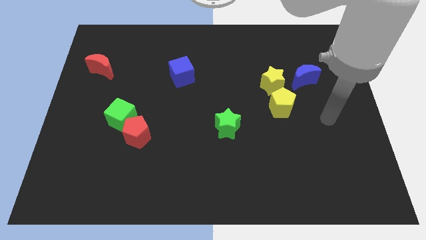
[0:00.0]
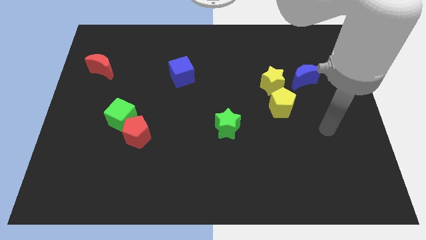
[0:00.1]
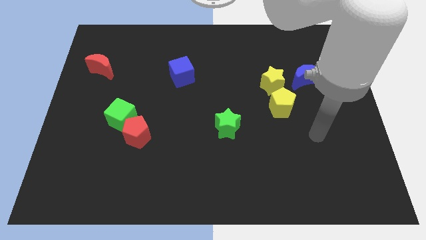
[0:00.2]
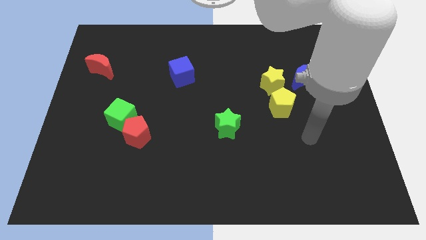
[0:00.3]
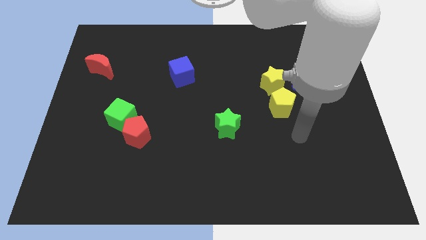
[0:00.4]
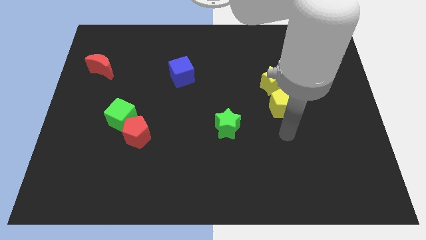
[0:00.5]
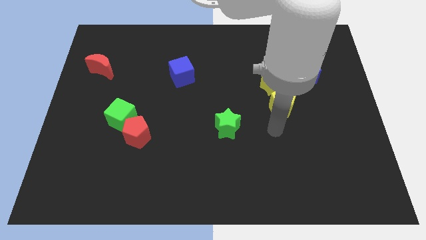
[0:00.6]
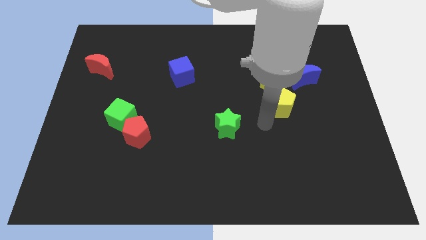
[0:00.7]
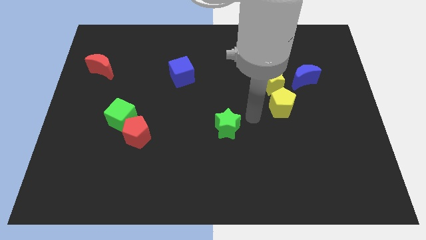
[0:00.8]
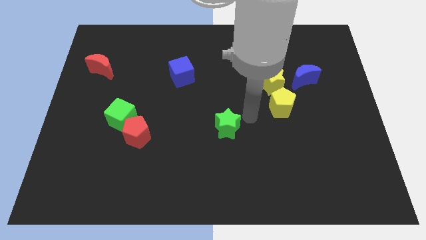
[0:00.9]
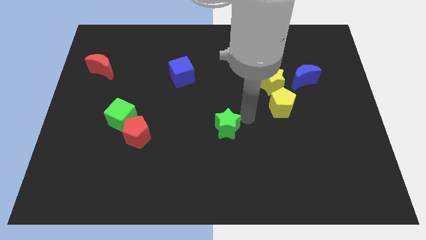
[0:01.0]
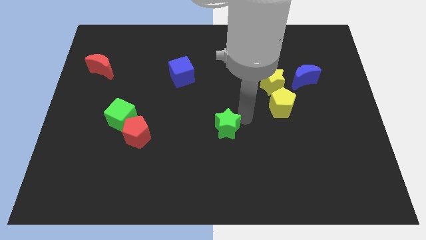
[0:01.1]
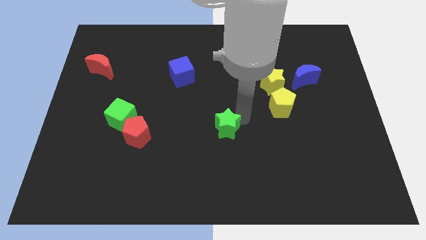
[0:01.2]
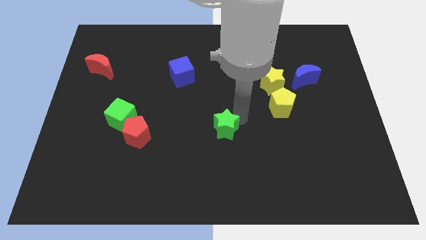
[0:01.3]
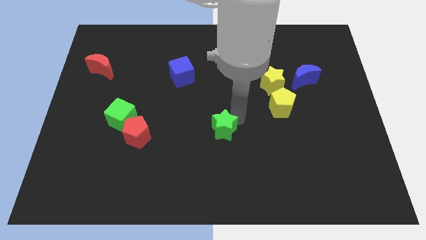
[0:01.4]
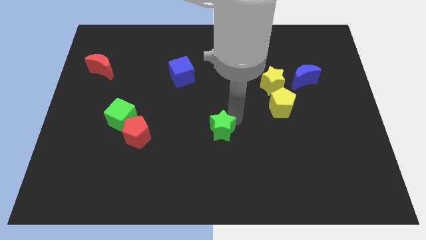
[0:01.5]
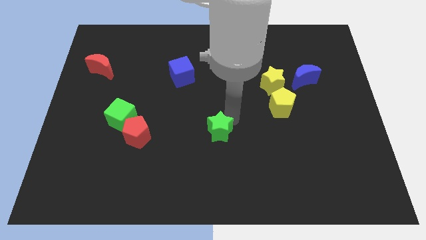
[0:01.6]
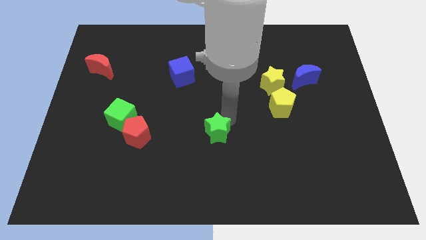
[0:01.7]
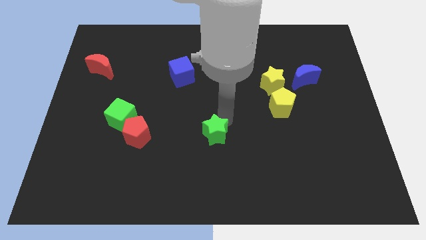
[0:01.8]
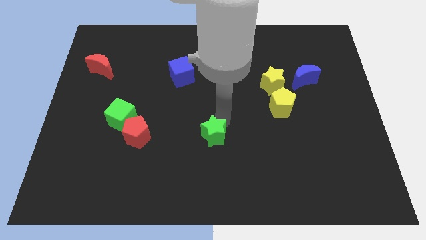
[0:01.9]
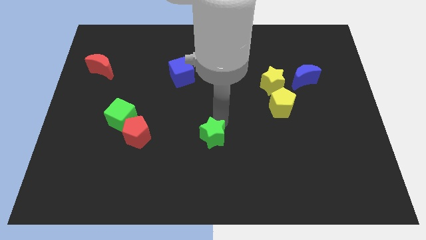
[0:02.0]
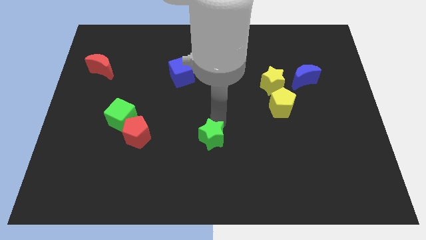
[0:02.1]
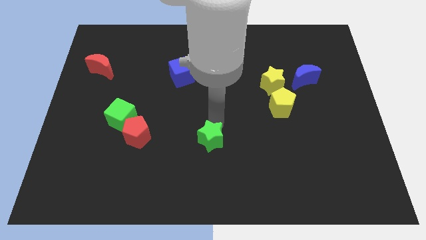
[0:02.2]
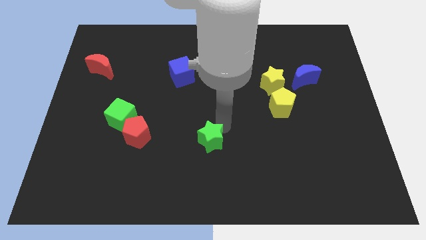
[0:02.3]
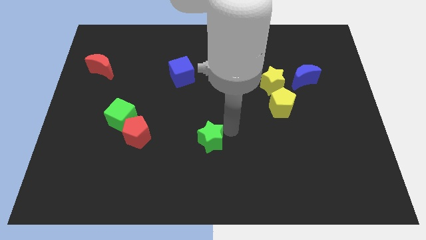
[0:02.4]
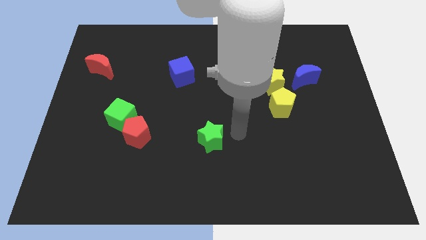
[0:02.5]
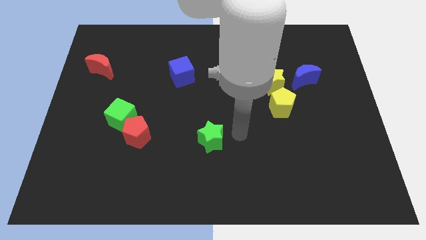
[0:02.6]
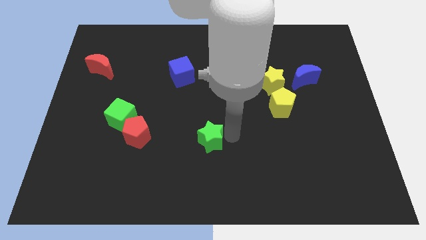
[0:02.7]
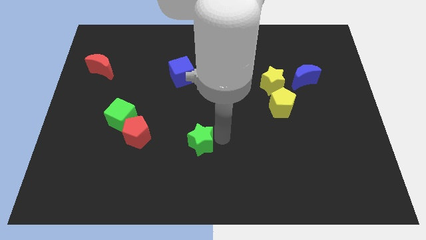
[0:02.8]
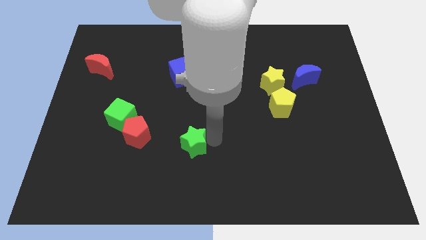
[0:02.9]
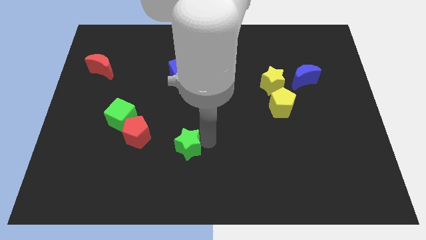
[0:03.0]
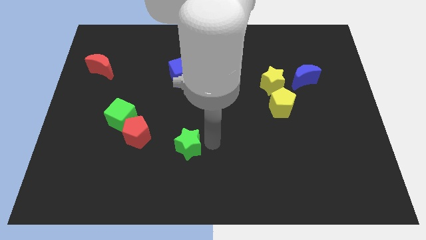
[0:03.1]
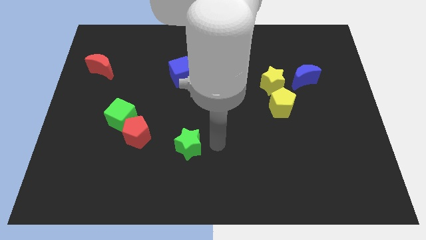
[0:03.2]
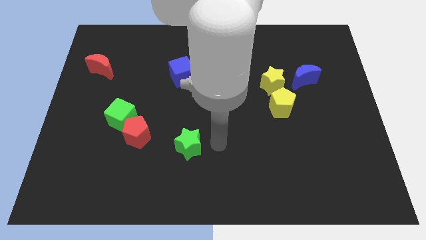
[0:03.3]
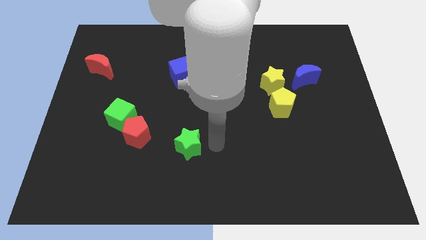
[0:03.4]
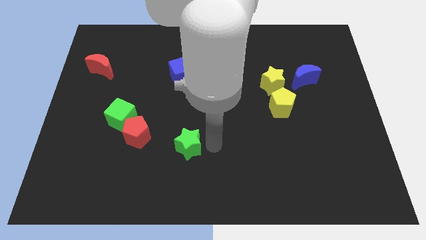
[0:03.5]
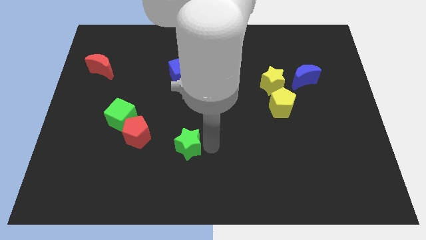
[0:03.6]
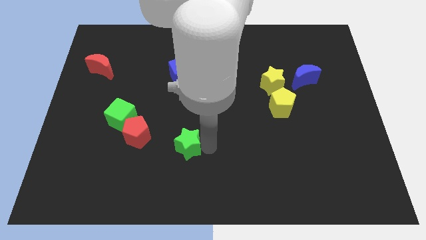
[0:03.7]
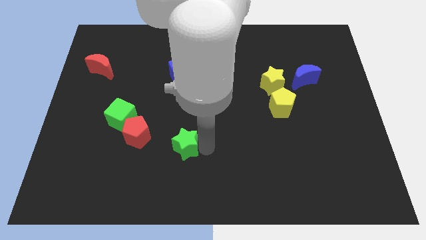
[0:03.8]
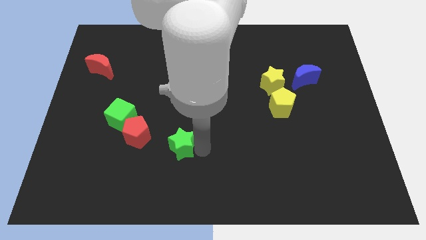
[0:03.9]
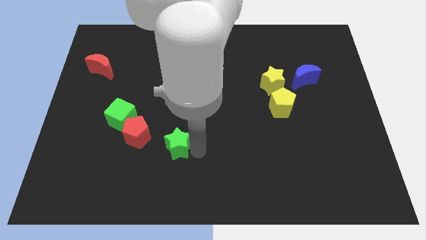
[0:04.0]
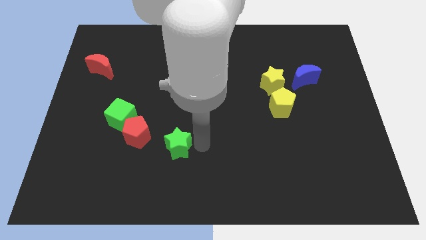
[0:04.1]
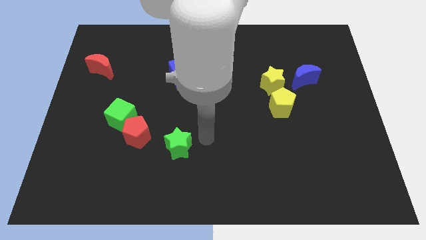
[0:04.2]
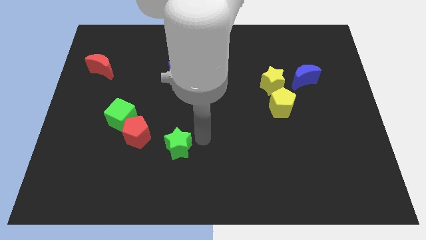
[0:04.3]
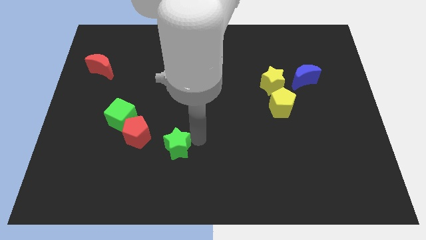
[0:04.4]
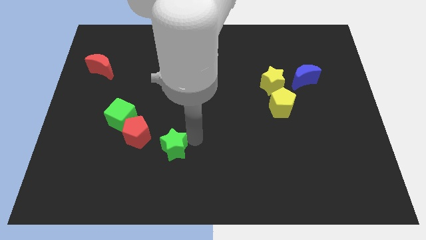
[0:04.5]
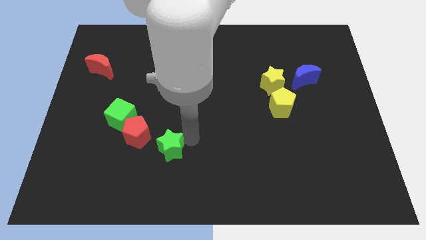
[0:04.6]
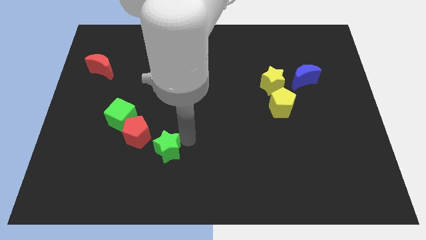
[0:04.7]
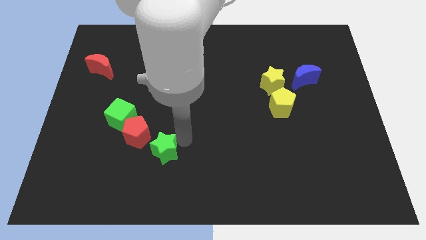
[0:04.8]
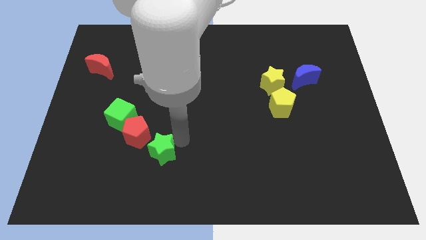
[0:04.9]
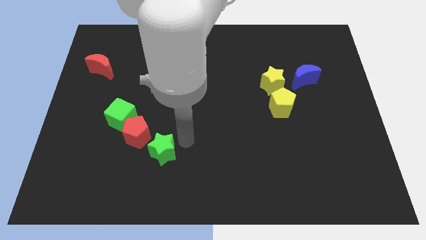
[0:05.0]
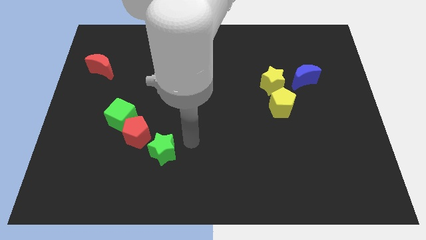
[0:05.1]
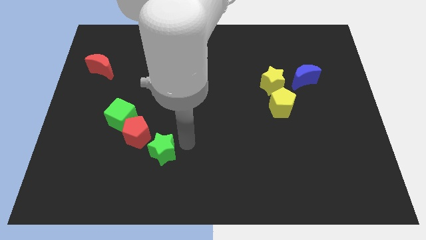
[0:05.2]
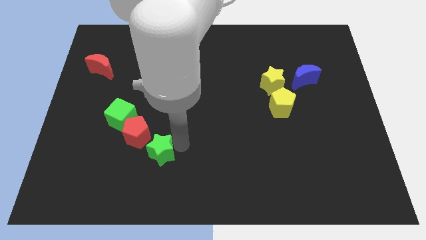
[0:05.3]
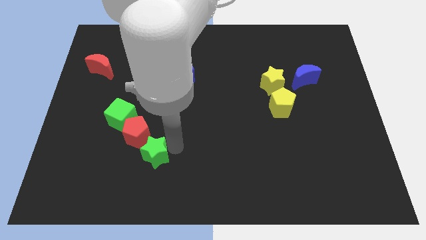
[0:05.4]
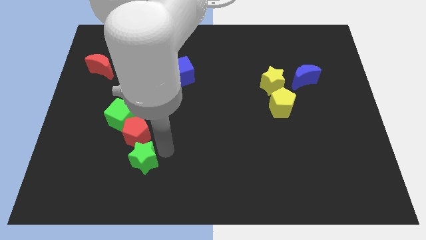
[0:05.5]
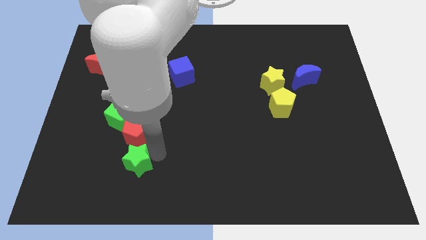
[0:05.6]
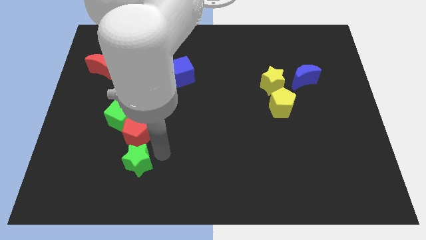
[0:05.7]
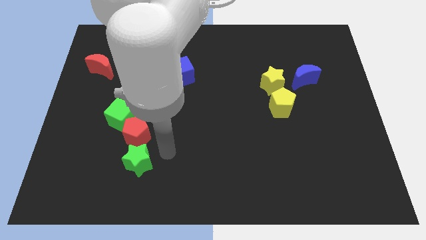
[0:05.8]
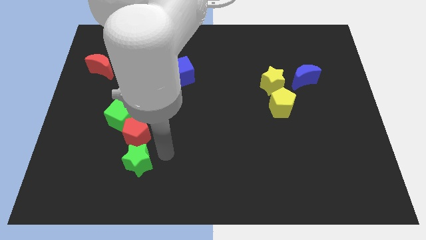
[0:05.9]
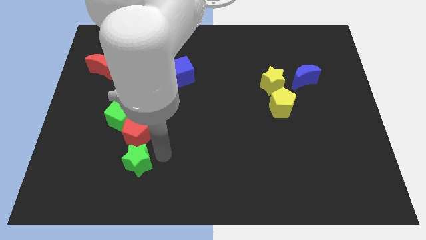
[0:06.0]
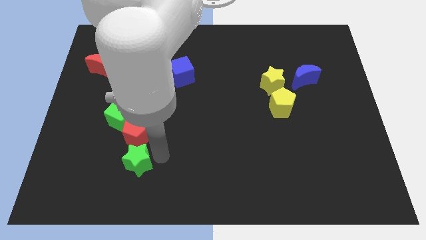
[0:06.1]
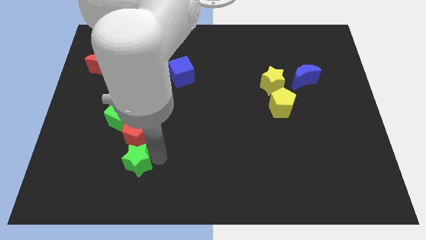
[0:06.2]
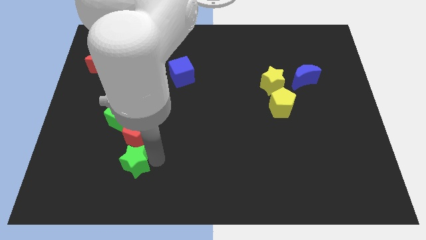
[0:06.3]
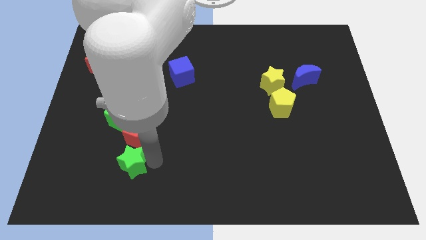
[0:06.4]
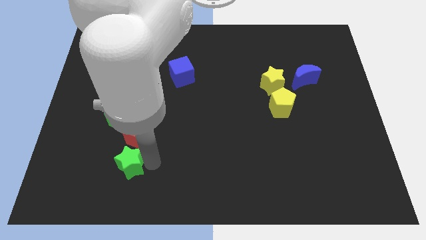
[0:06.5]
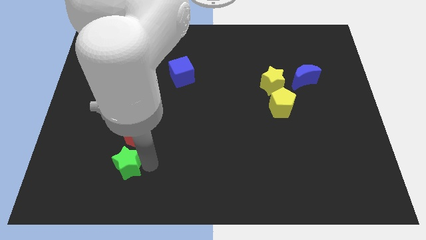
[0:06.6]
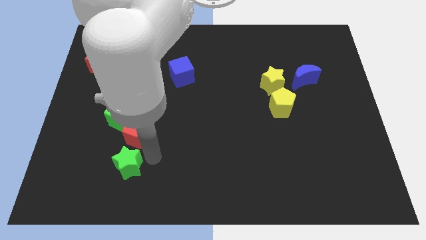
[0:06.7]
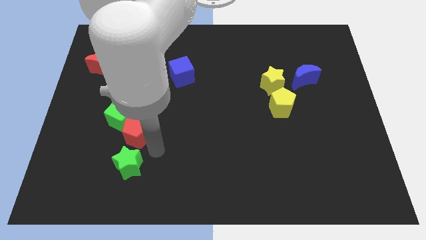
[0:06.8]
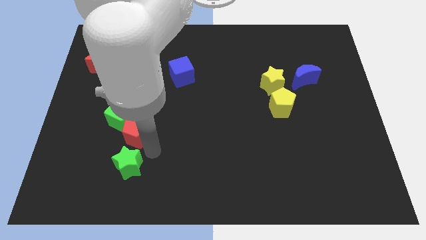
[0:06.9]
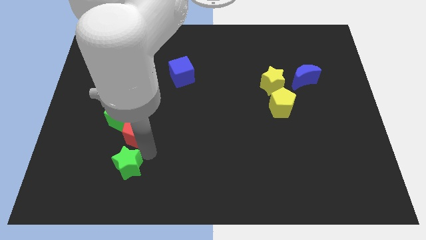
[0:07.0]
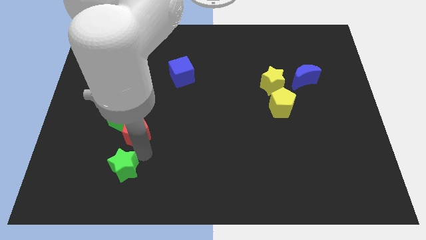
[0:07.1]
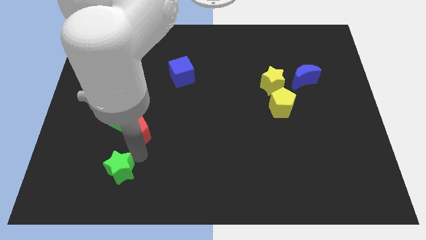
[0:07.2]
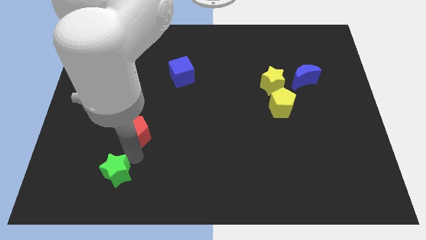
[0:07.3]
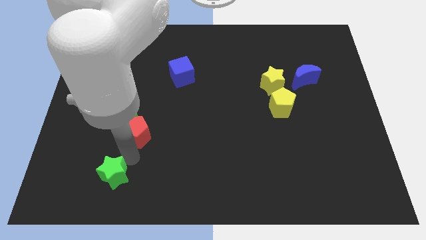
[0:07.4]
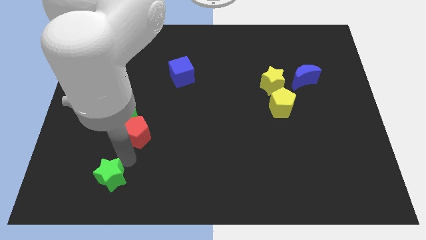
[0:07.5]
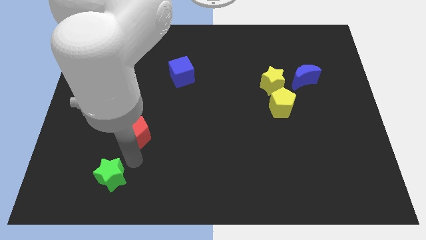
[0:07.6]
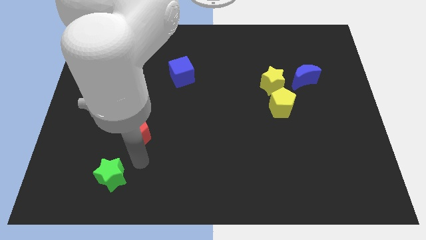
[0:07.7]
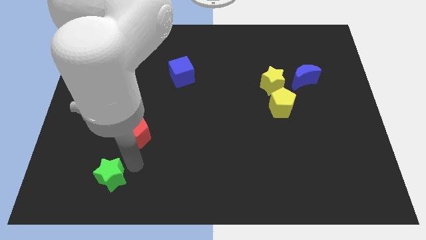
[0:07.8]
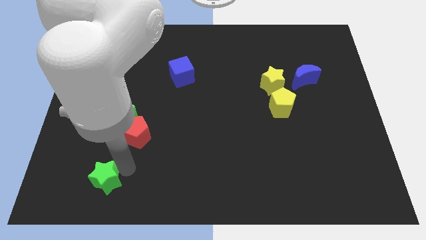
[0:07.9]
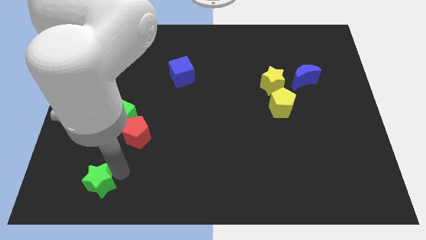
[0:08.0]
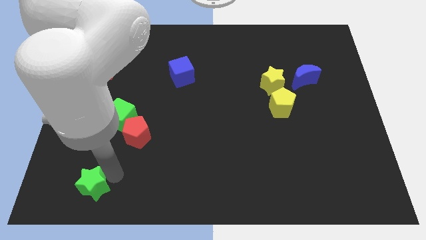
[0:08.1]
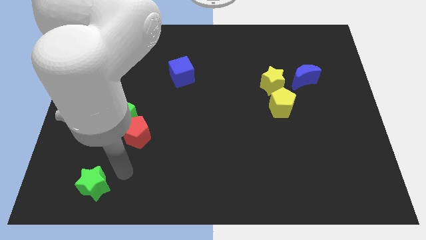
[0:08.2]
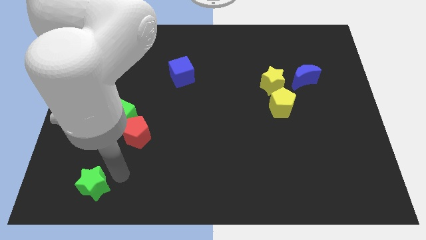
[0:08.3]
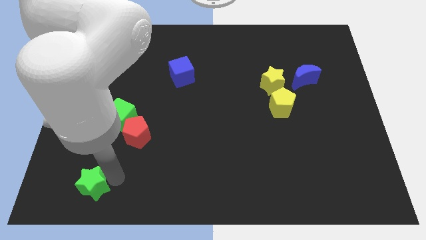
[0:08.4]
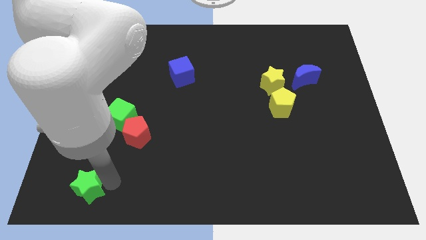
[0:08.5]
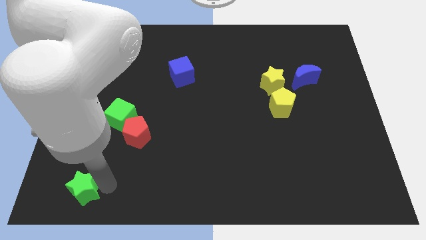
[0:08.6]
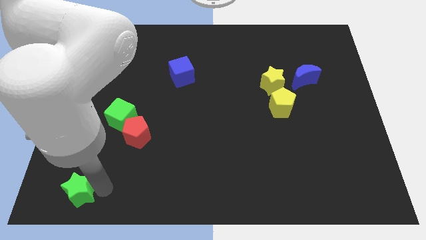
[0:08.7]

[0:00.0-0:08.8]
slide the green star to the bottom left corner
